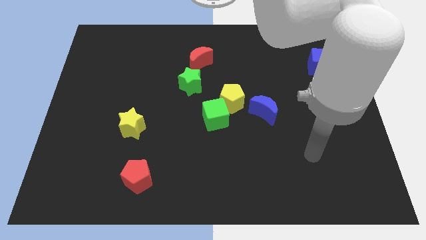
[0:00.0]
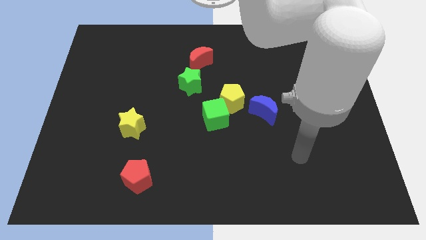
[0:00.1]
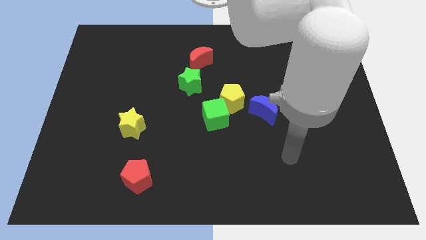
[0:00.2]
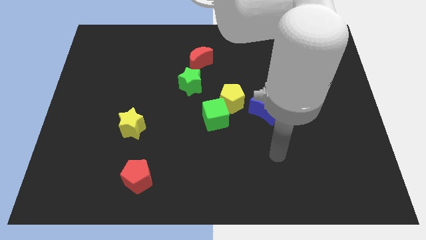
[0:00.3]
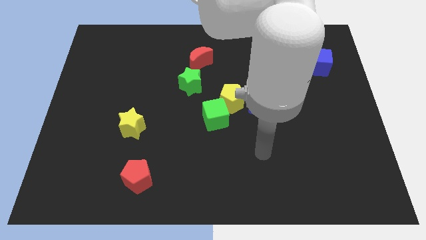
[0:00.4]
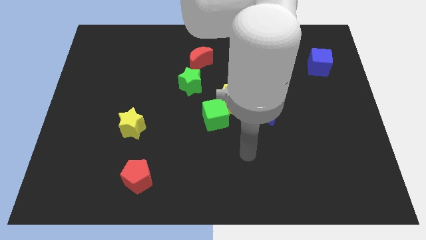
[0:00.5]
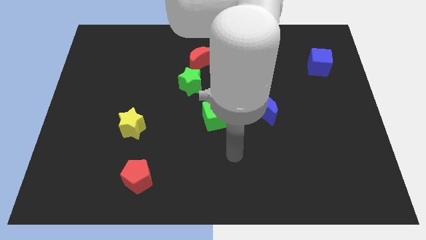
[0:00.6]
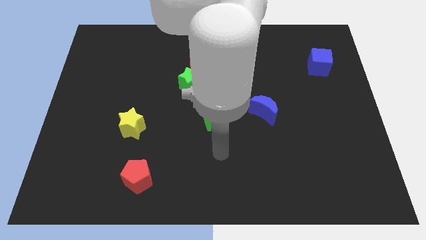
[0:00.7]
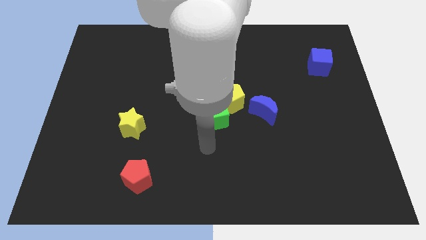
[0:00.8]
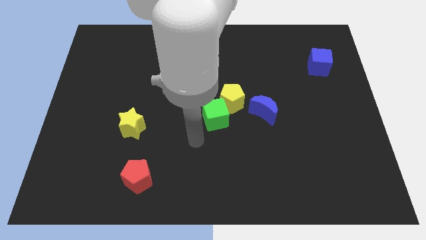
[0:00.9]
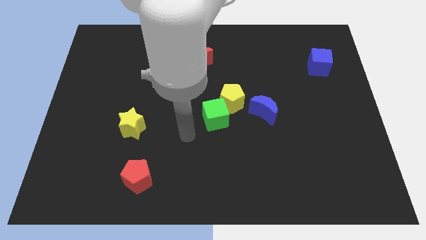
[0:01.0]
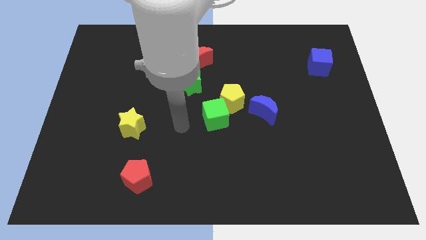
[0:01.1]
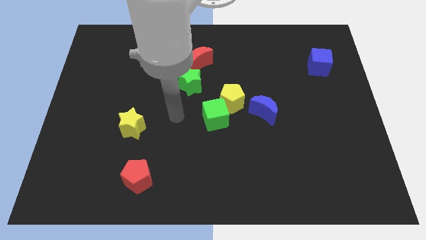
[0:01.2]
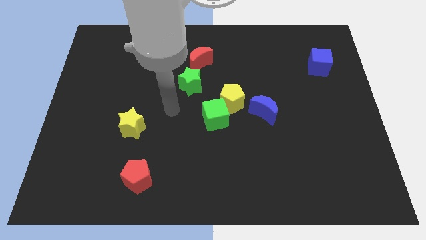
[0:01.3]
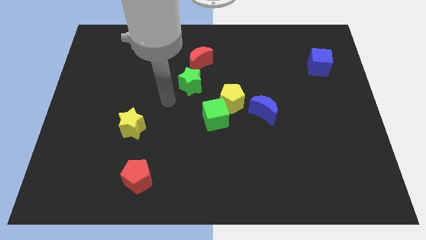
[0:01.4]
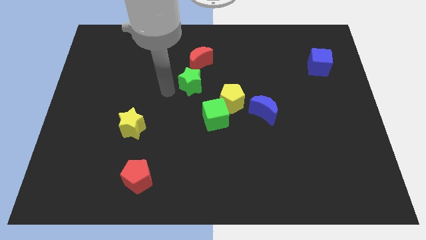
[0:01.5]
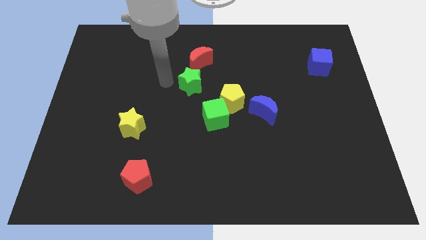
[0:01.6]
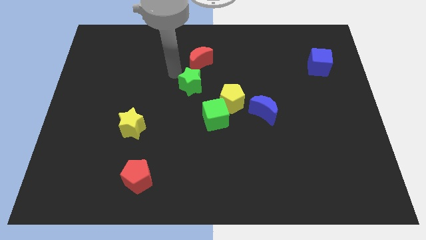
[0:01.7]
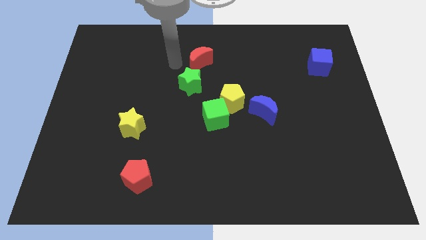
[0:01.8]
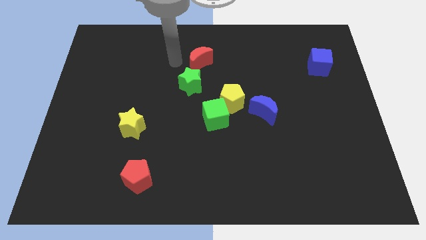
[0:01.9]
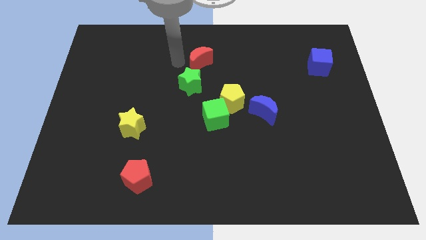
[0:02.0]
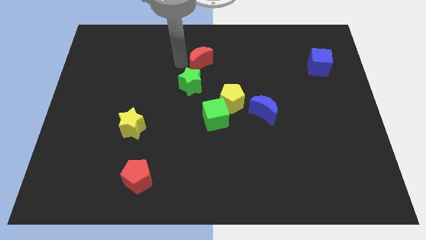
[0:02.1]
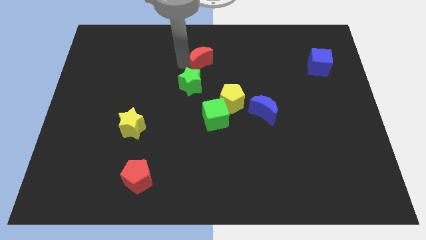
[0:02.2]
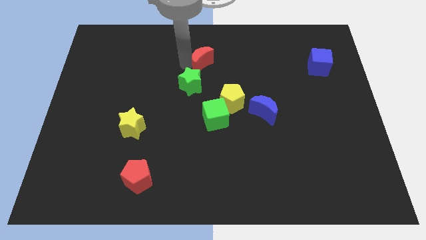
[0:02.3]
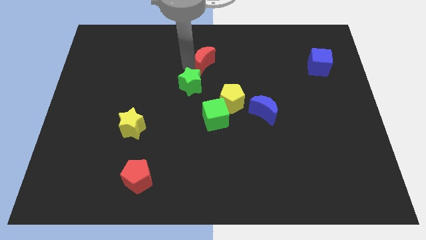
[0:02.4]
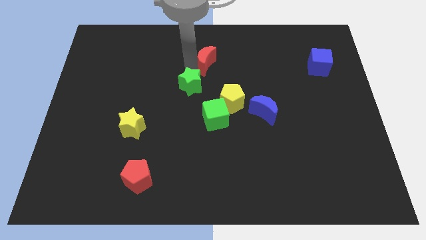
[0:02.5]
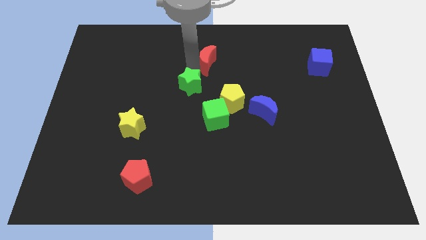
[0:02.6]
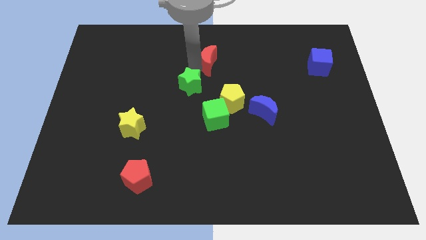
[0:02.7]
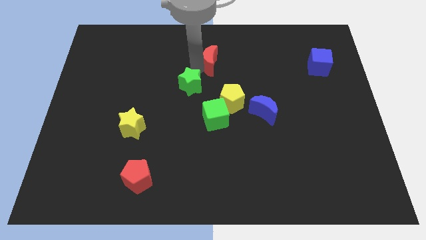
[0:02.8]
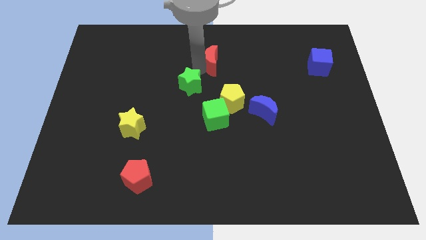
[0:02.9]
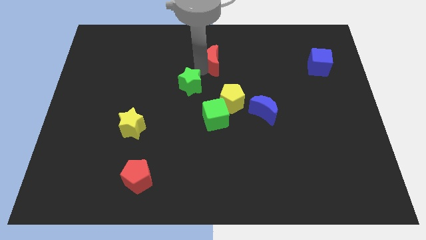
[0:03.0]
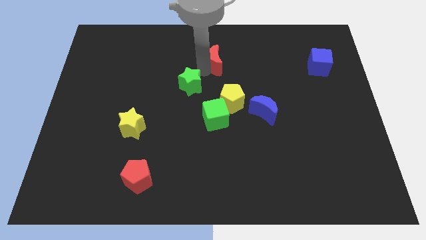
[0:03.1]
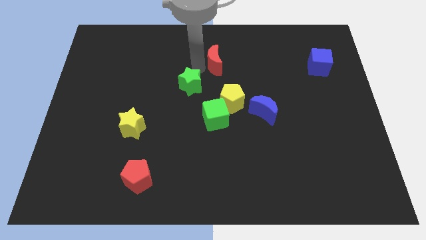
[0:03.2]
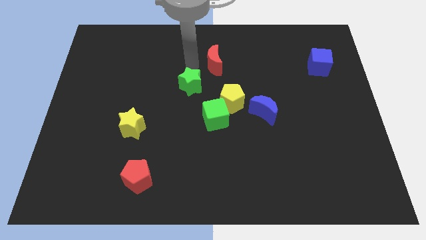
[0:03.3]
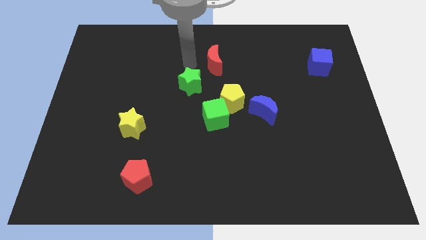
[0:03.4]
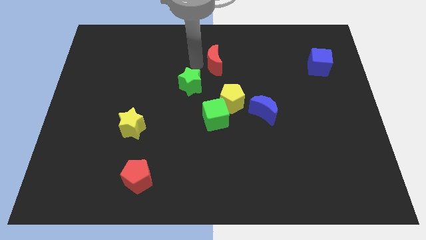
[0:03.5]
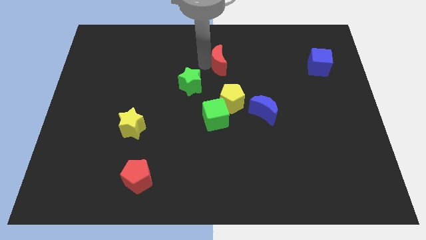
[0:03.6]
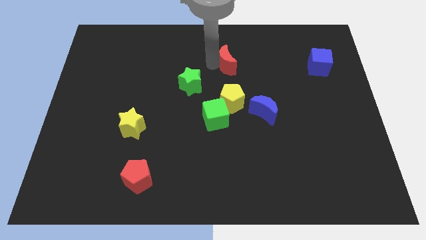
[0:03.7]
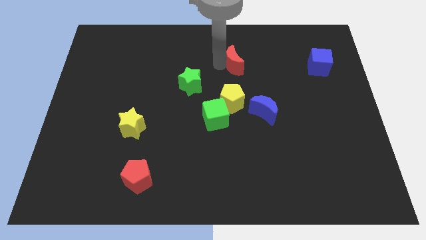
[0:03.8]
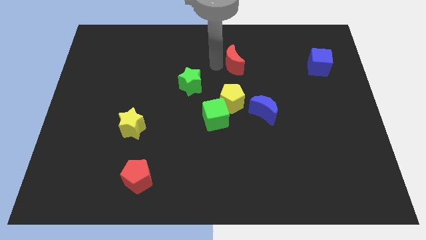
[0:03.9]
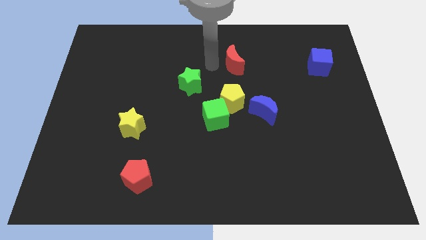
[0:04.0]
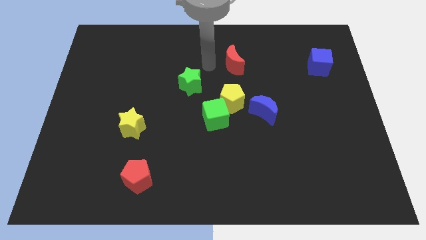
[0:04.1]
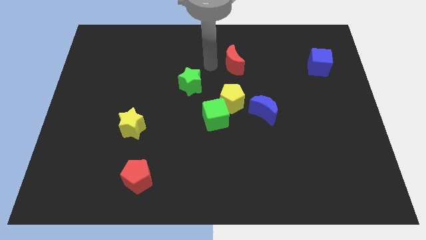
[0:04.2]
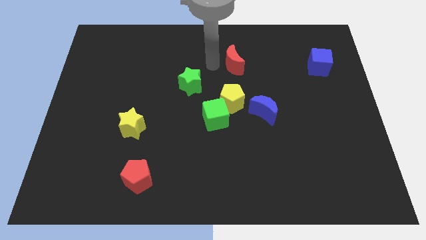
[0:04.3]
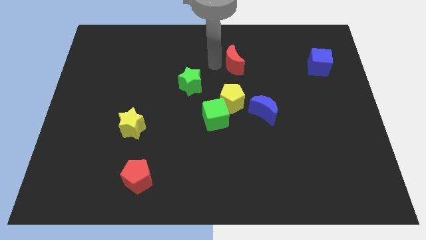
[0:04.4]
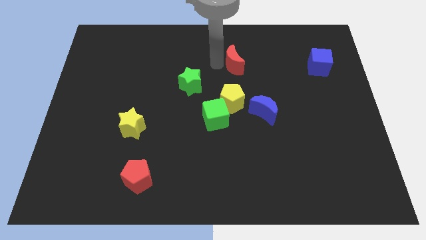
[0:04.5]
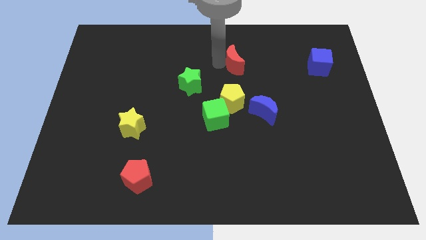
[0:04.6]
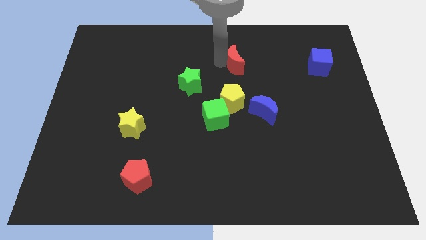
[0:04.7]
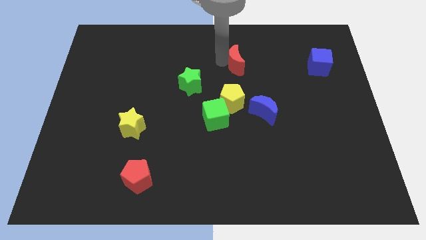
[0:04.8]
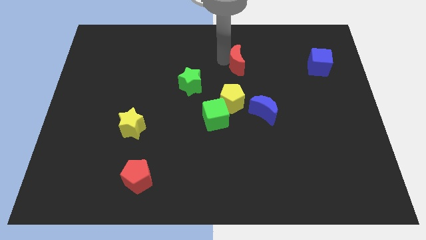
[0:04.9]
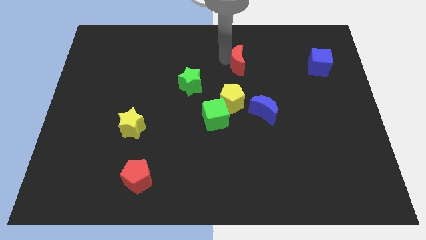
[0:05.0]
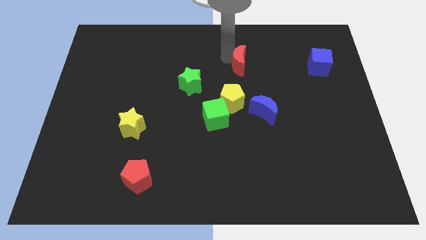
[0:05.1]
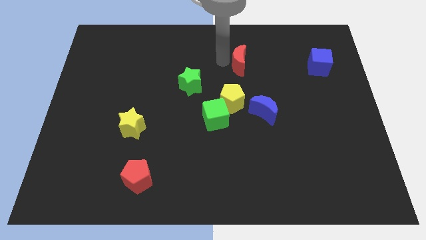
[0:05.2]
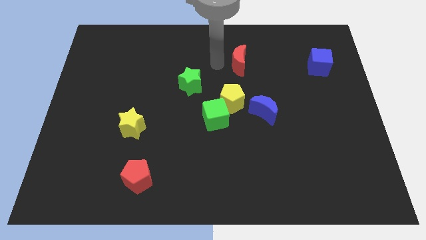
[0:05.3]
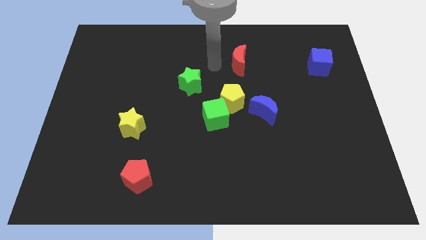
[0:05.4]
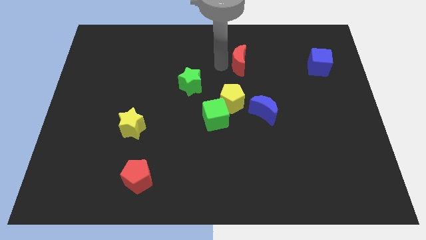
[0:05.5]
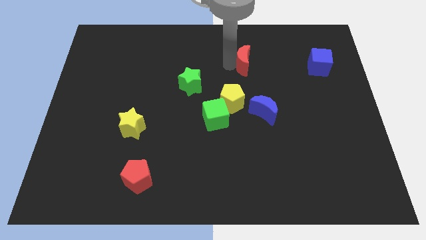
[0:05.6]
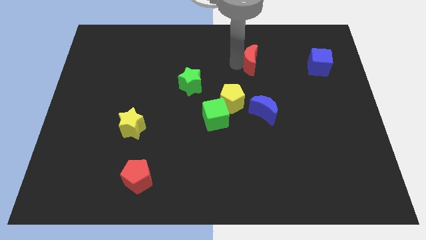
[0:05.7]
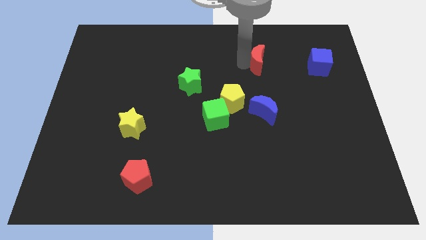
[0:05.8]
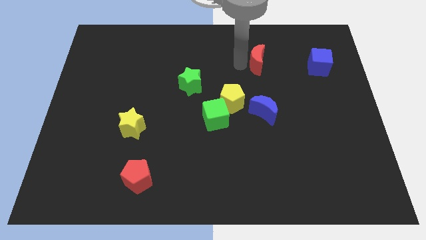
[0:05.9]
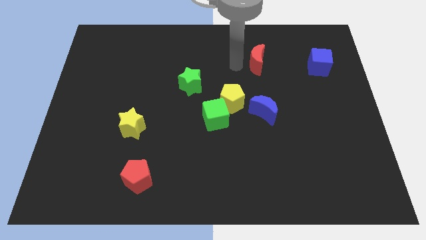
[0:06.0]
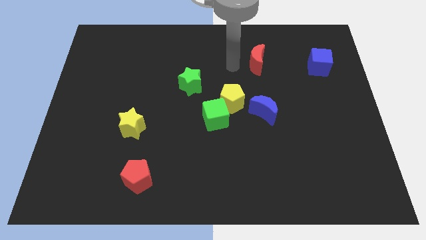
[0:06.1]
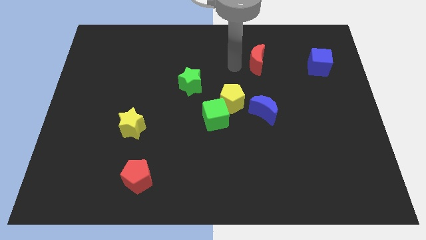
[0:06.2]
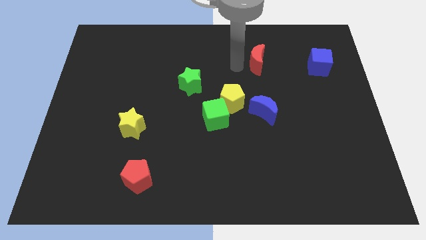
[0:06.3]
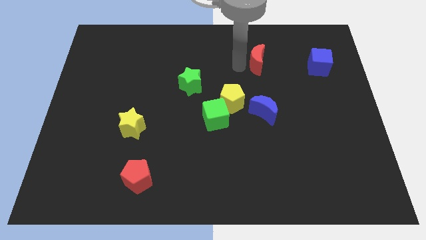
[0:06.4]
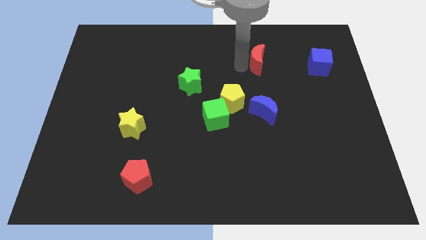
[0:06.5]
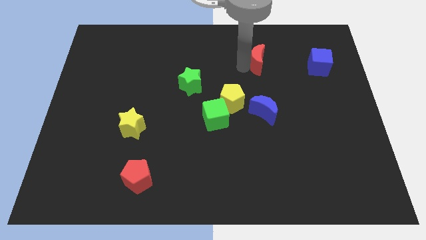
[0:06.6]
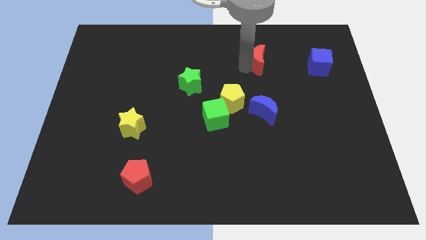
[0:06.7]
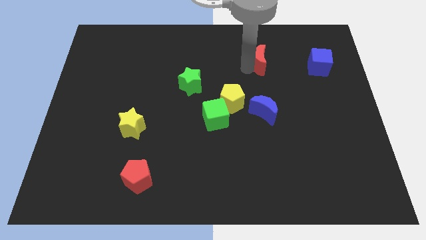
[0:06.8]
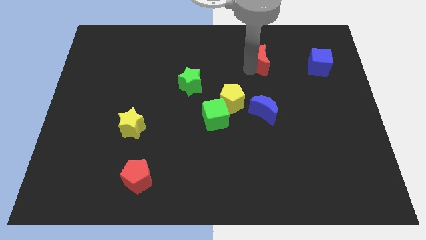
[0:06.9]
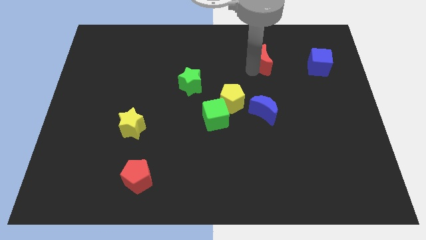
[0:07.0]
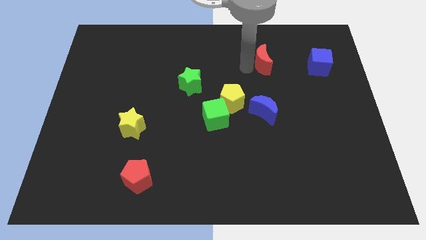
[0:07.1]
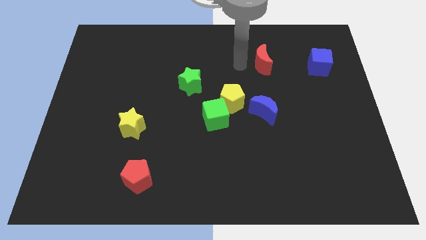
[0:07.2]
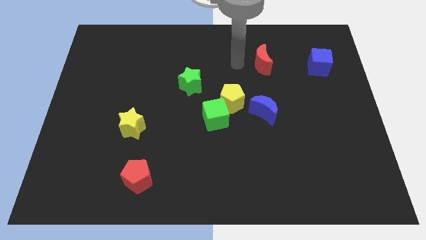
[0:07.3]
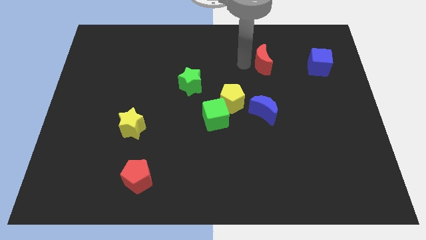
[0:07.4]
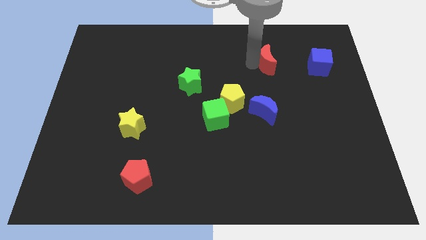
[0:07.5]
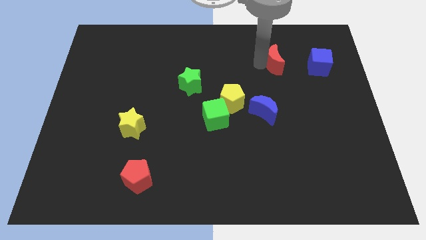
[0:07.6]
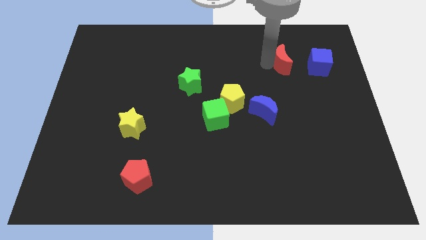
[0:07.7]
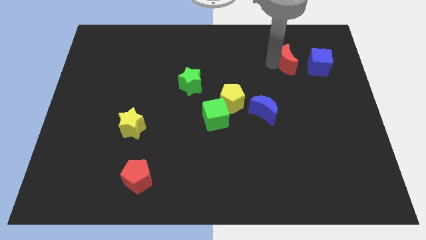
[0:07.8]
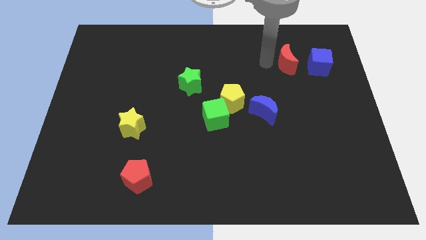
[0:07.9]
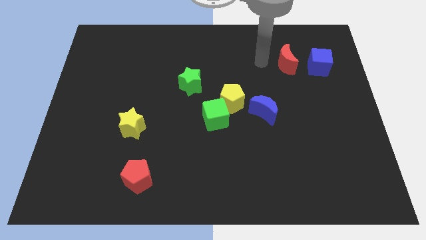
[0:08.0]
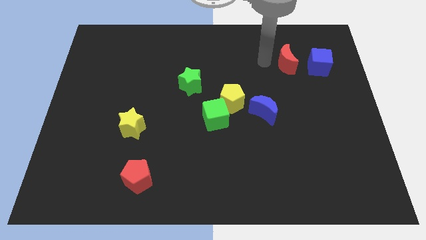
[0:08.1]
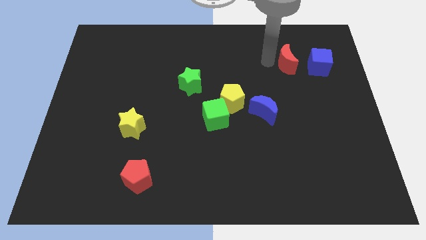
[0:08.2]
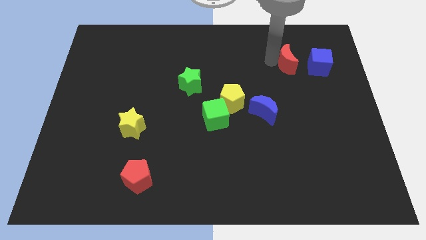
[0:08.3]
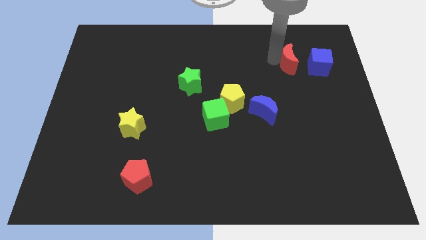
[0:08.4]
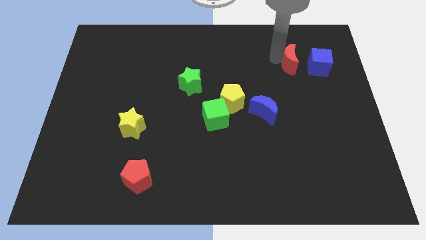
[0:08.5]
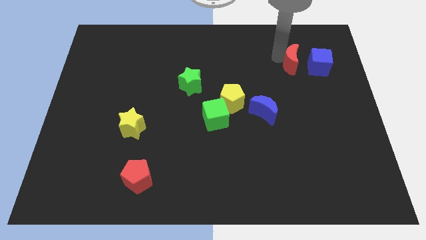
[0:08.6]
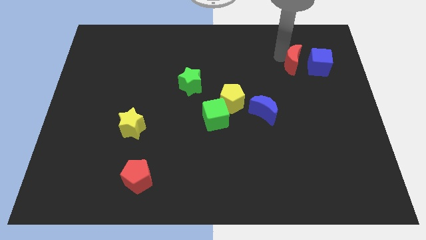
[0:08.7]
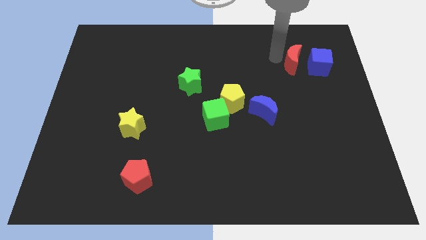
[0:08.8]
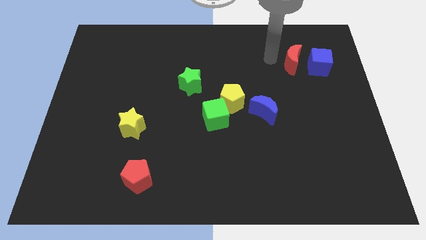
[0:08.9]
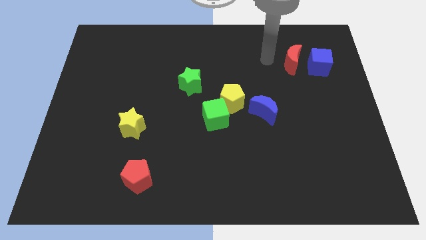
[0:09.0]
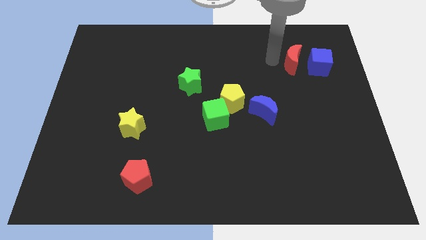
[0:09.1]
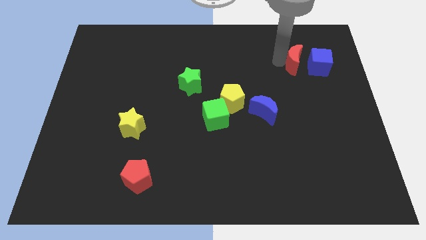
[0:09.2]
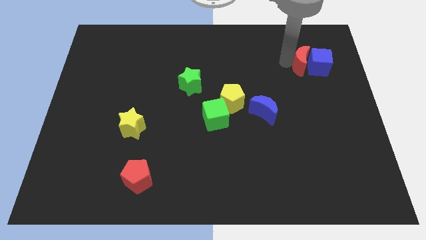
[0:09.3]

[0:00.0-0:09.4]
push the red moon towards the blue cube
